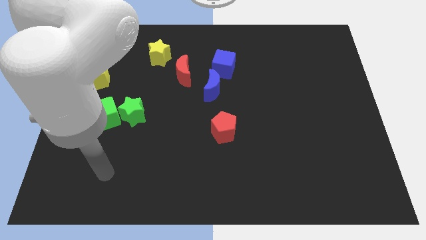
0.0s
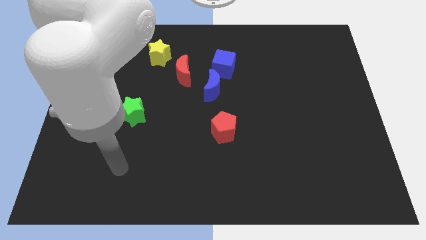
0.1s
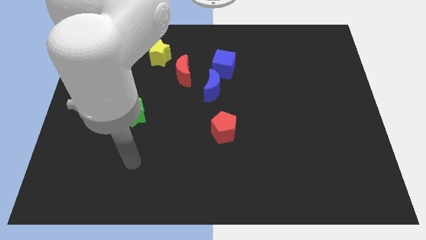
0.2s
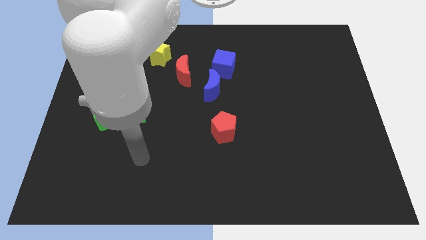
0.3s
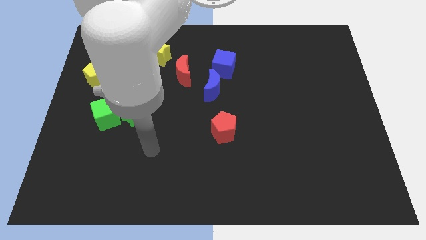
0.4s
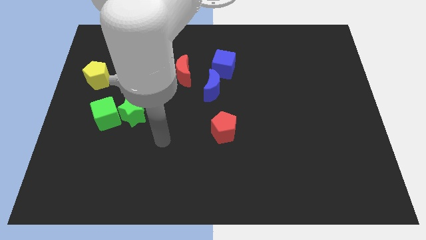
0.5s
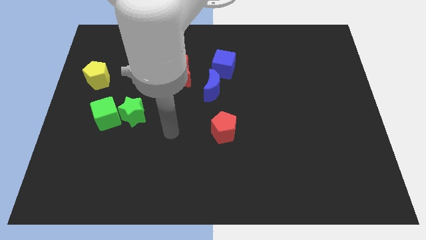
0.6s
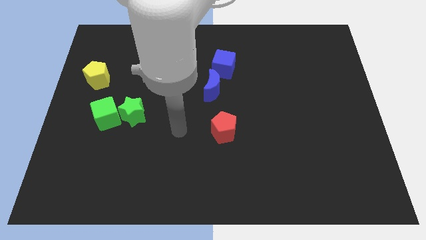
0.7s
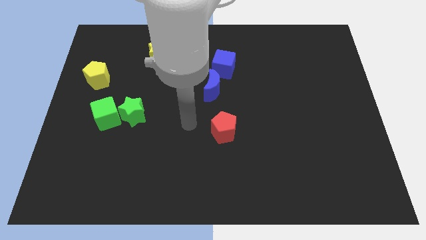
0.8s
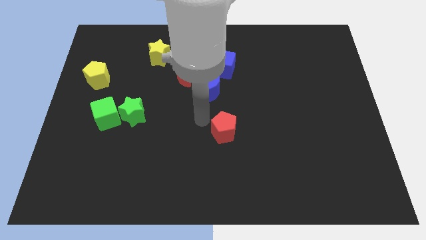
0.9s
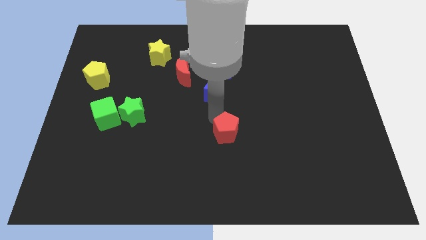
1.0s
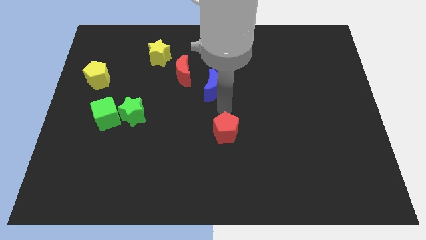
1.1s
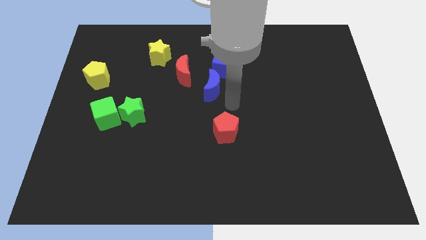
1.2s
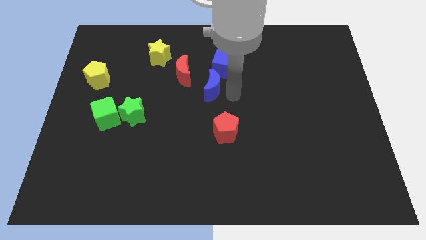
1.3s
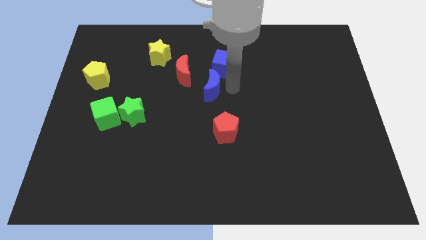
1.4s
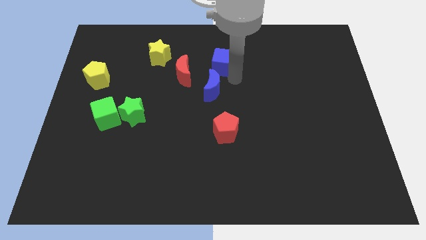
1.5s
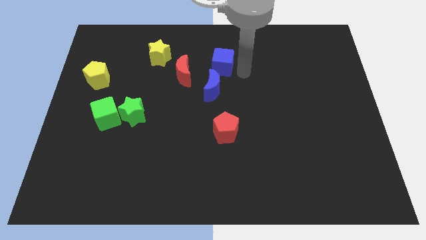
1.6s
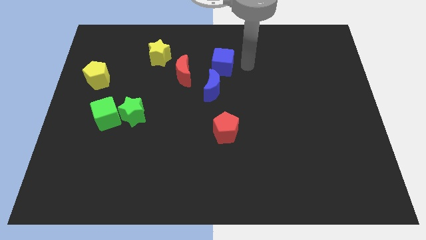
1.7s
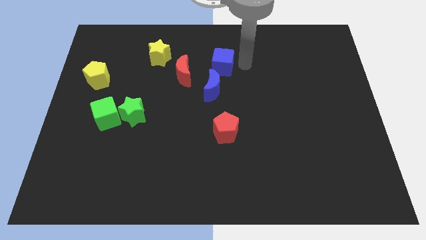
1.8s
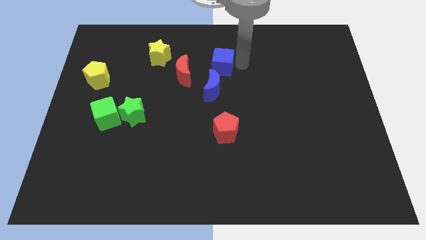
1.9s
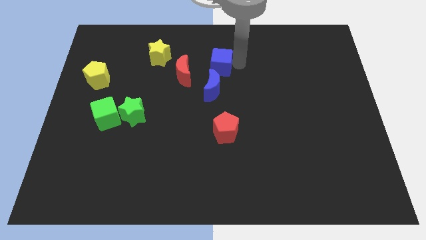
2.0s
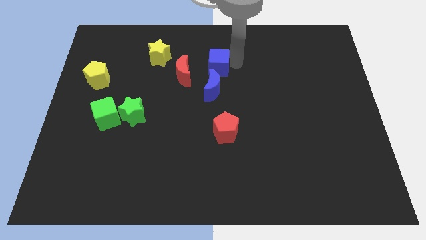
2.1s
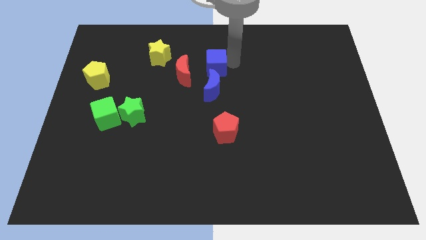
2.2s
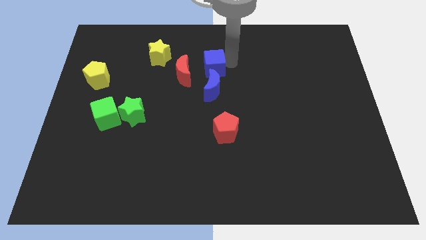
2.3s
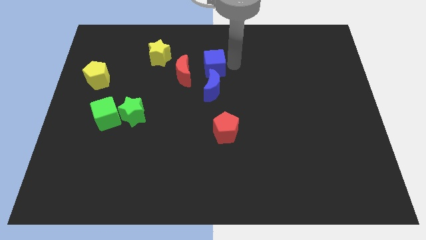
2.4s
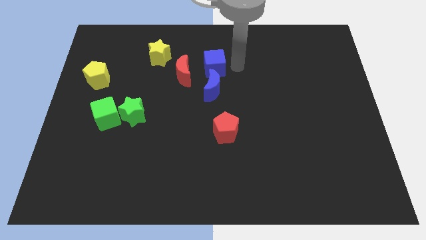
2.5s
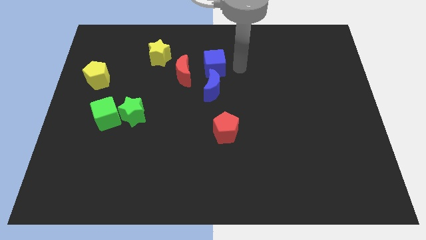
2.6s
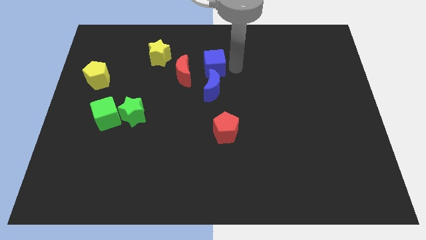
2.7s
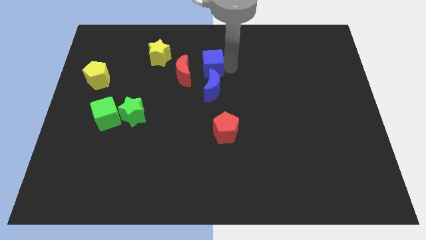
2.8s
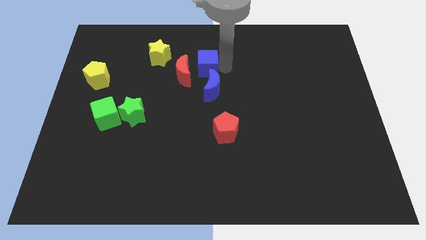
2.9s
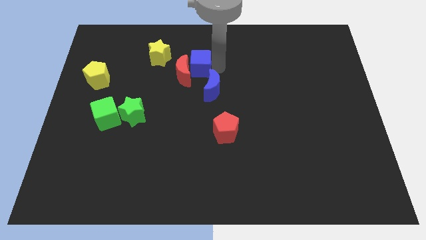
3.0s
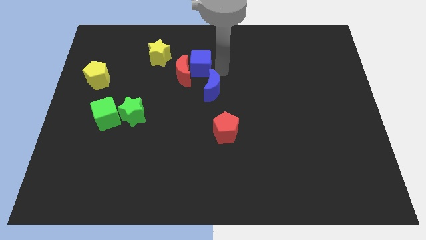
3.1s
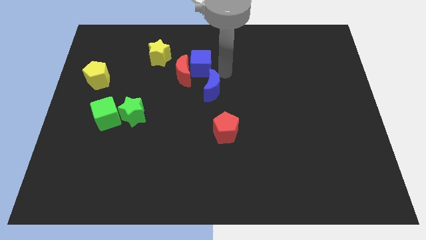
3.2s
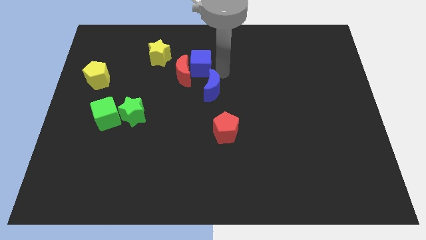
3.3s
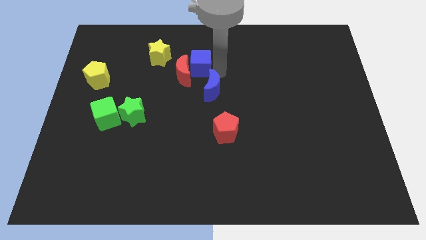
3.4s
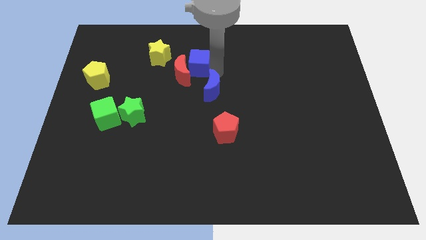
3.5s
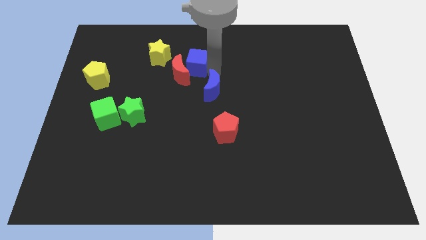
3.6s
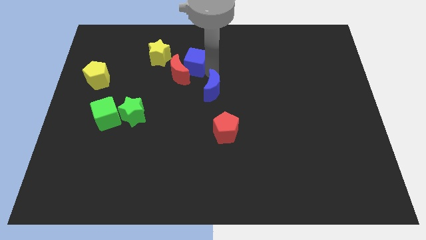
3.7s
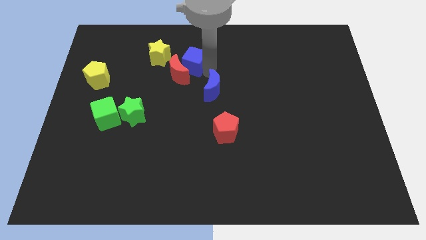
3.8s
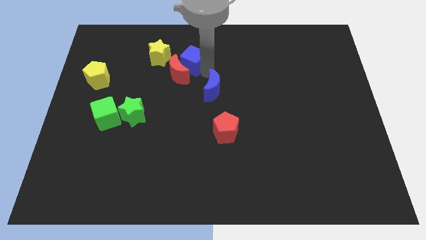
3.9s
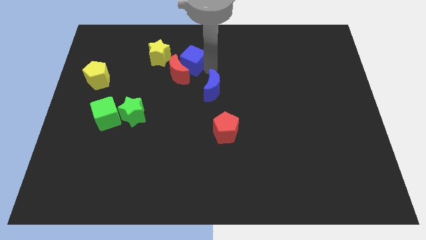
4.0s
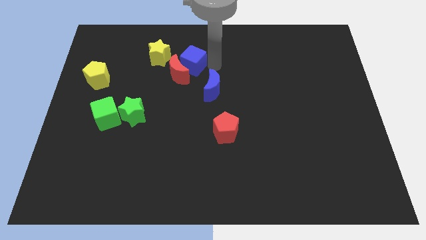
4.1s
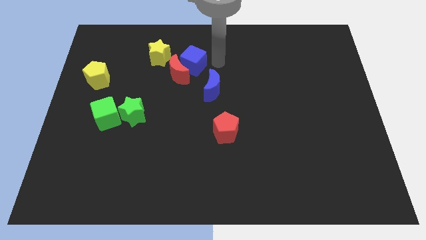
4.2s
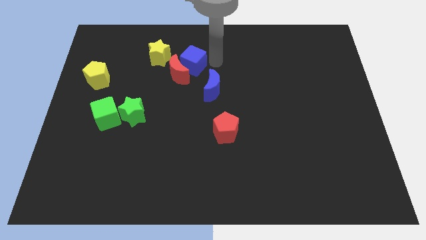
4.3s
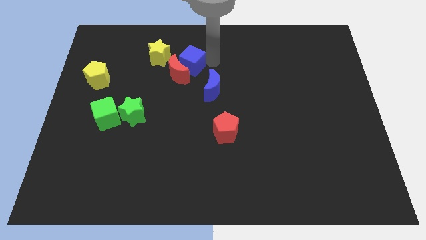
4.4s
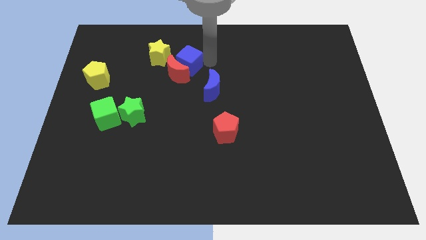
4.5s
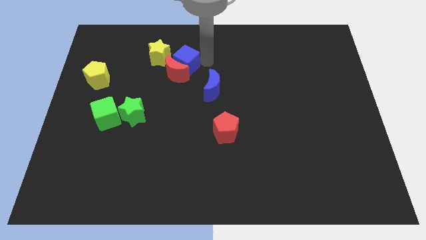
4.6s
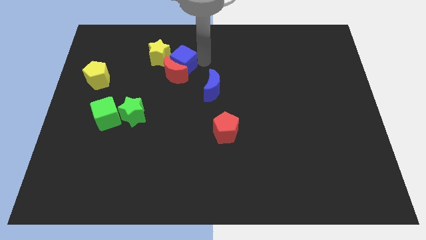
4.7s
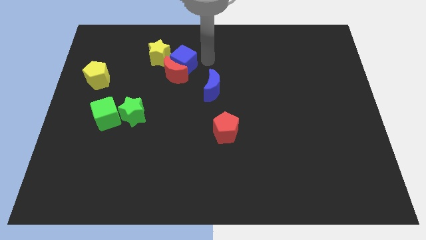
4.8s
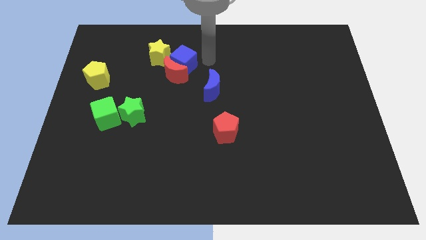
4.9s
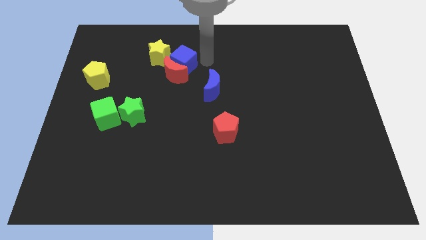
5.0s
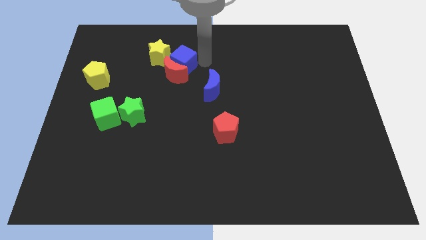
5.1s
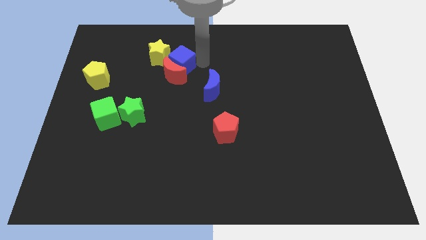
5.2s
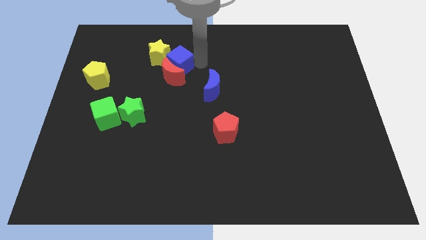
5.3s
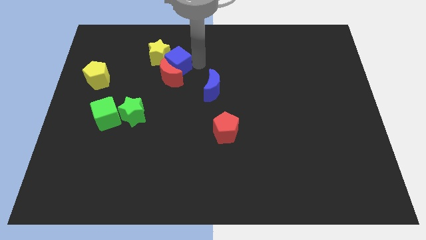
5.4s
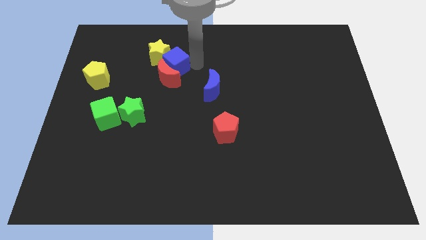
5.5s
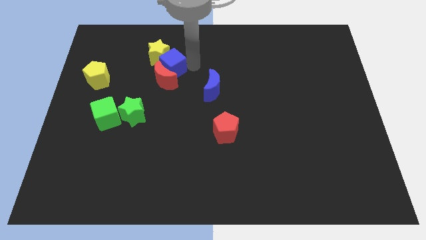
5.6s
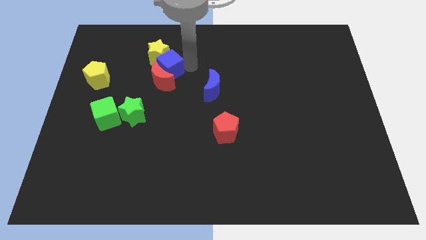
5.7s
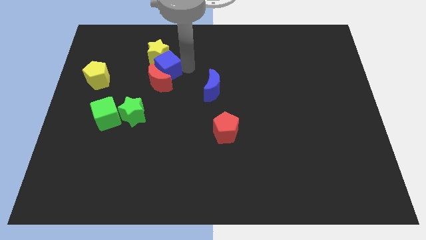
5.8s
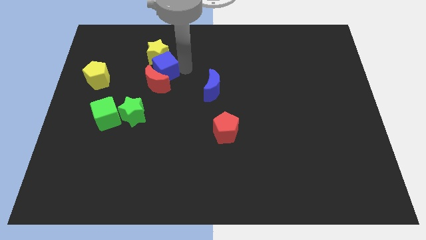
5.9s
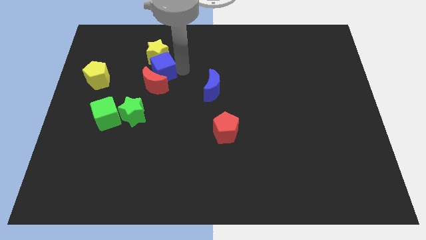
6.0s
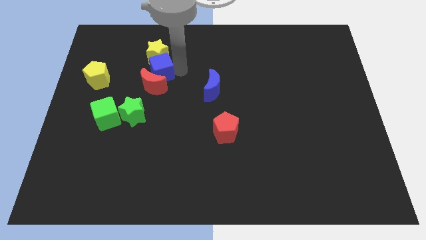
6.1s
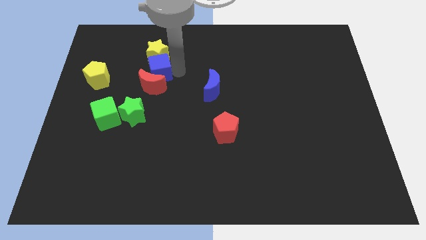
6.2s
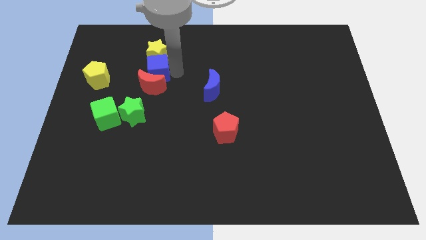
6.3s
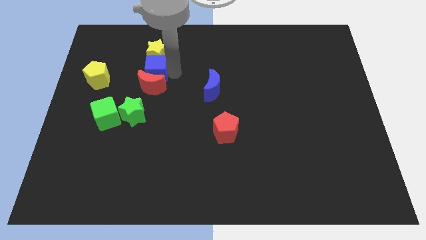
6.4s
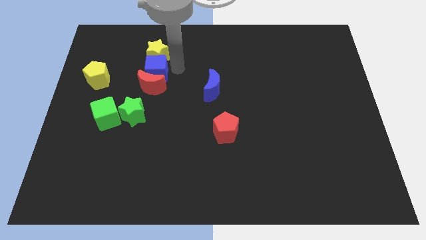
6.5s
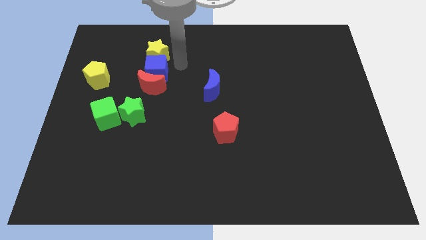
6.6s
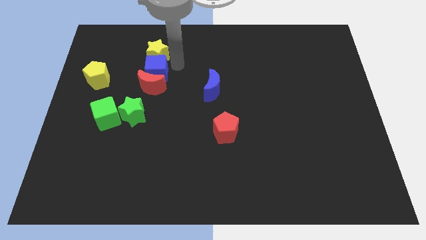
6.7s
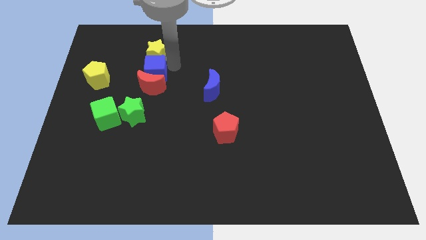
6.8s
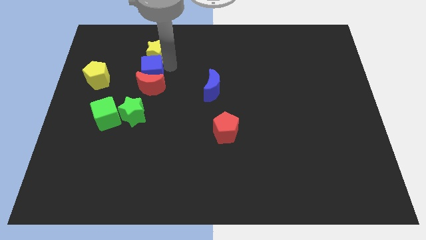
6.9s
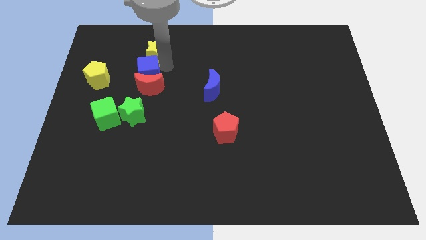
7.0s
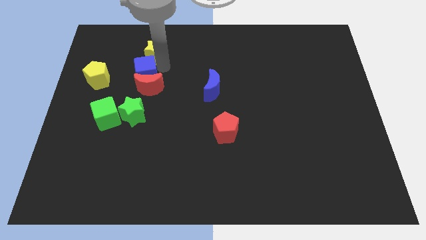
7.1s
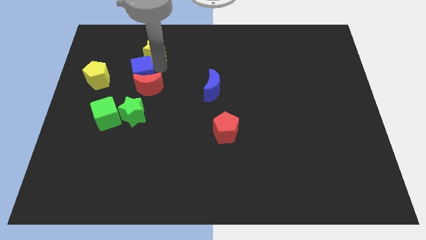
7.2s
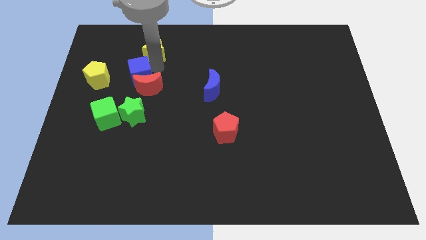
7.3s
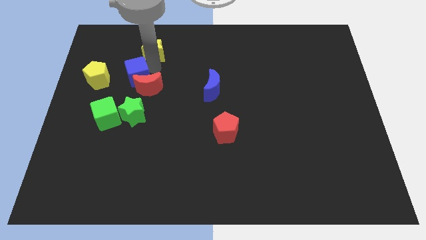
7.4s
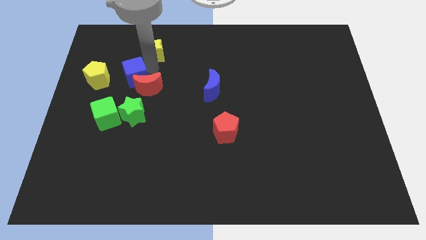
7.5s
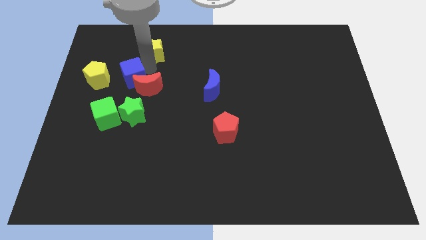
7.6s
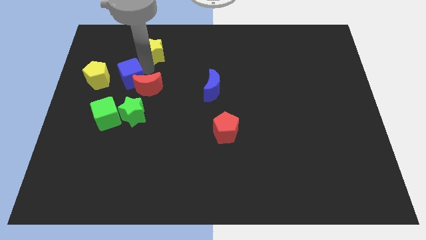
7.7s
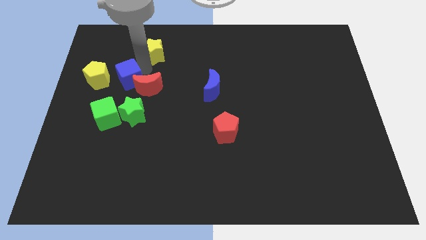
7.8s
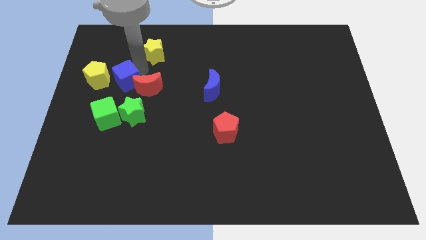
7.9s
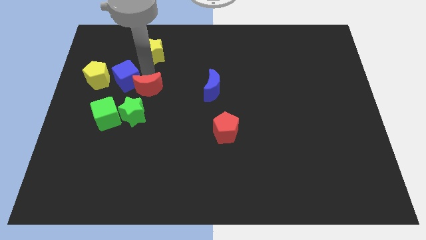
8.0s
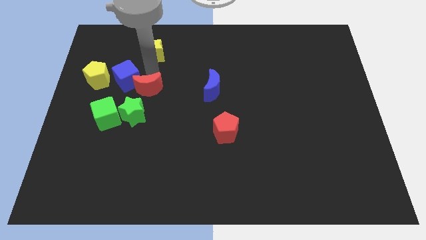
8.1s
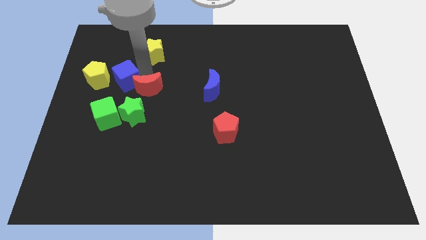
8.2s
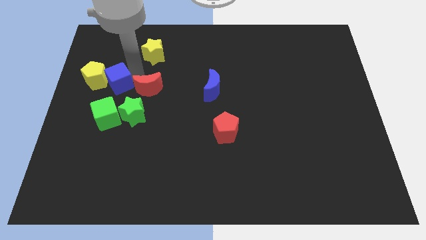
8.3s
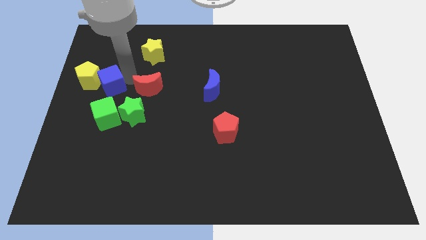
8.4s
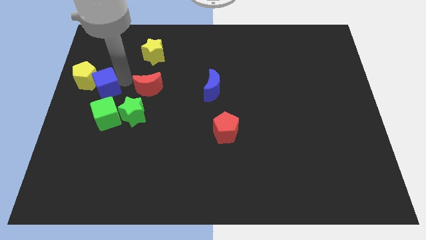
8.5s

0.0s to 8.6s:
put the blue cube to the left side of the board
